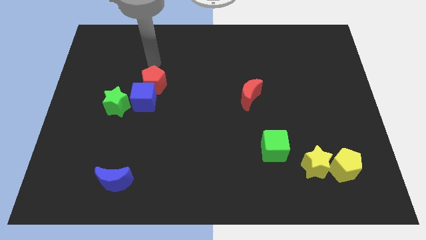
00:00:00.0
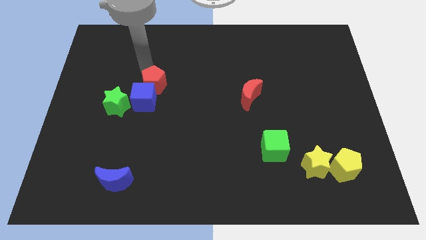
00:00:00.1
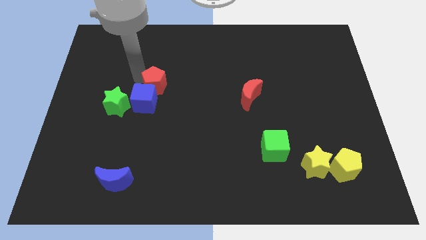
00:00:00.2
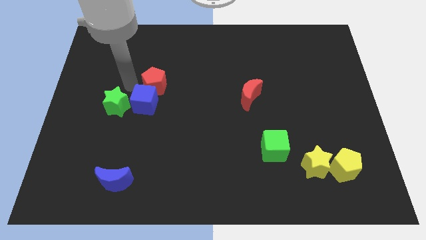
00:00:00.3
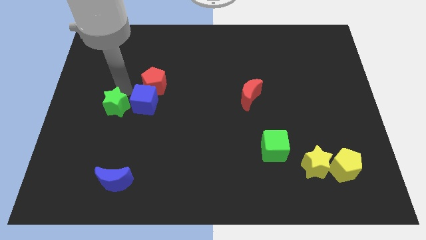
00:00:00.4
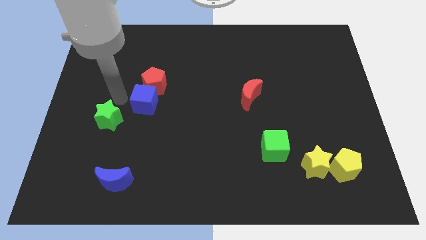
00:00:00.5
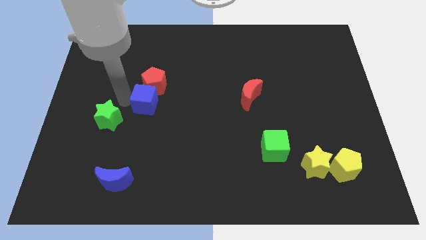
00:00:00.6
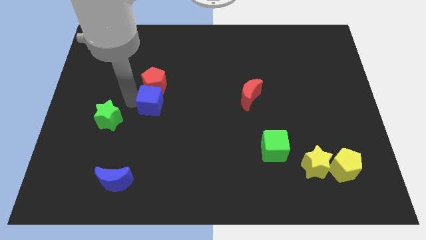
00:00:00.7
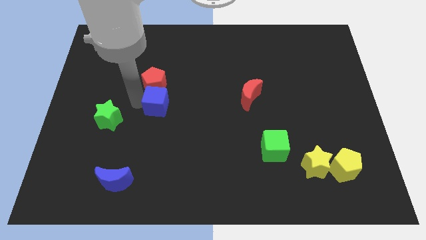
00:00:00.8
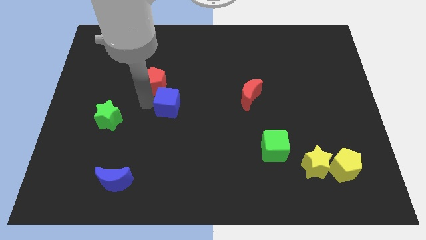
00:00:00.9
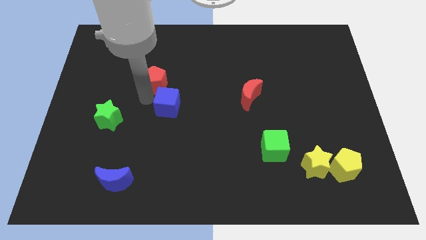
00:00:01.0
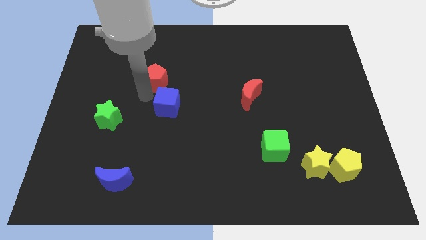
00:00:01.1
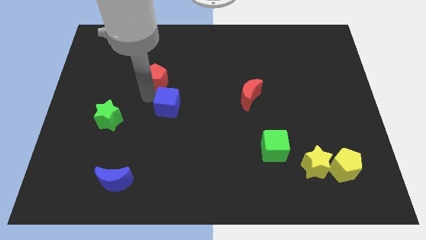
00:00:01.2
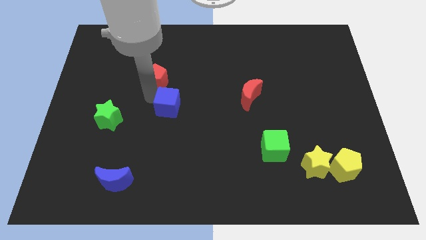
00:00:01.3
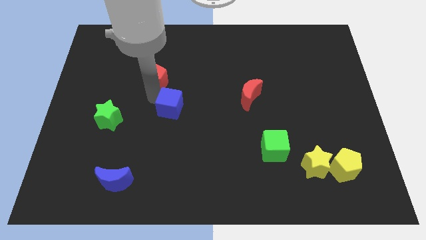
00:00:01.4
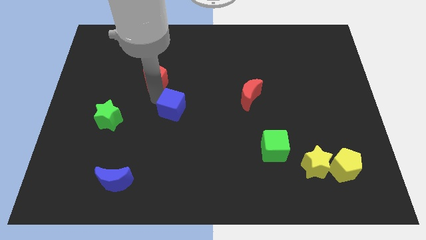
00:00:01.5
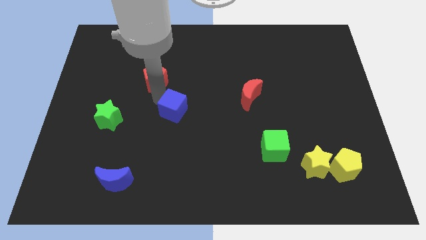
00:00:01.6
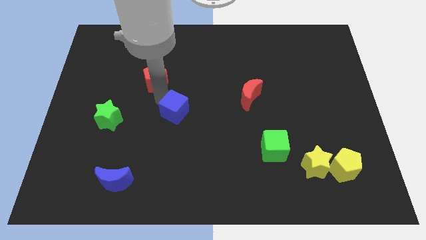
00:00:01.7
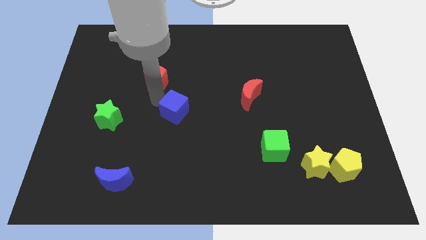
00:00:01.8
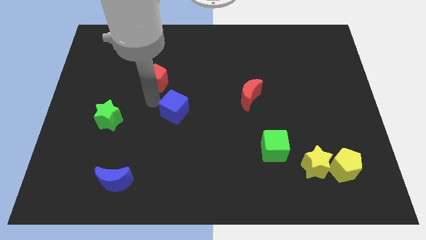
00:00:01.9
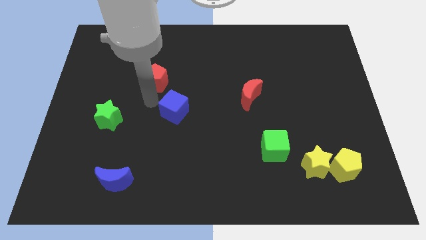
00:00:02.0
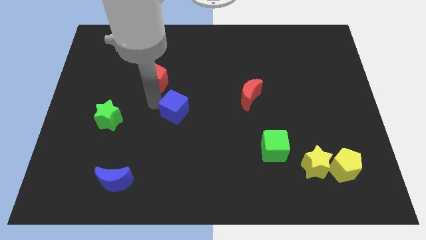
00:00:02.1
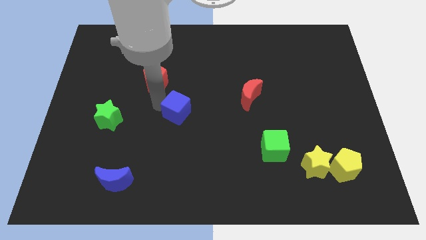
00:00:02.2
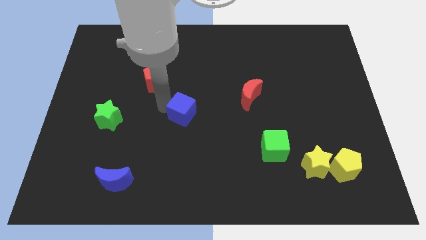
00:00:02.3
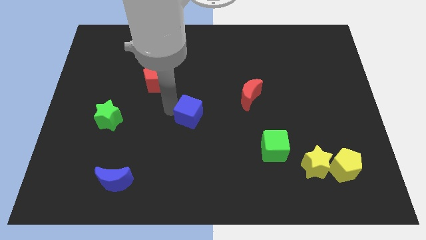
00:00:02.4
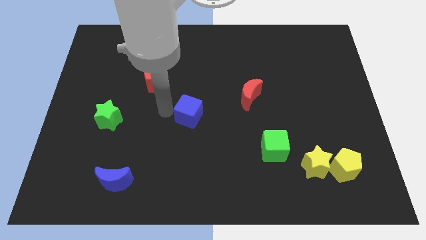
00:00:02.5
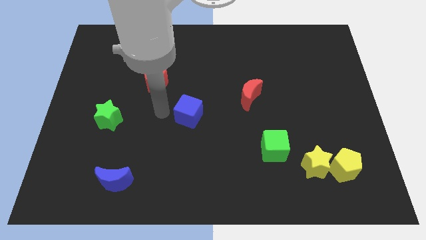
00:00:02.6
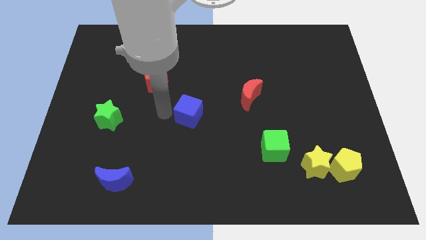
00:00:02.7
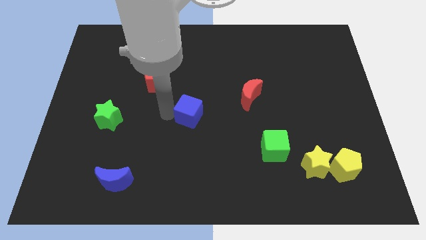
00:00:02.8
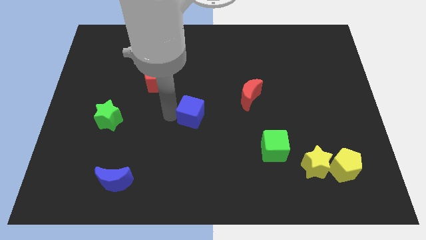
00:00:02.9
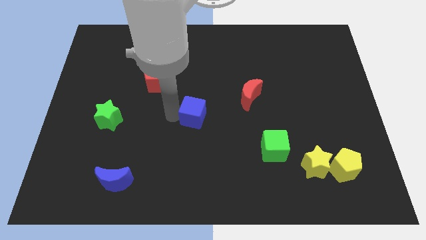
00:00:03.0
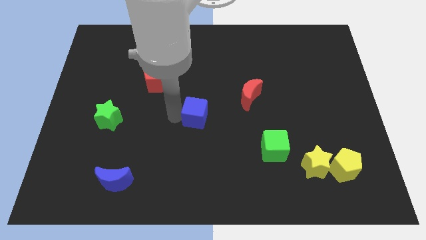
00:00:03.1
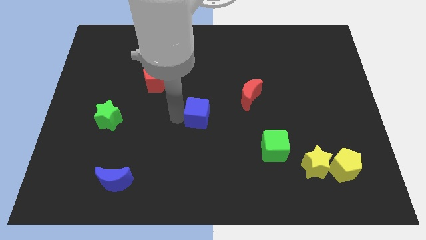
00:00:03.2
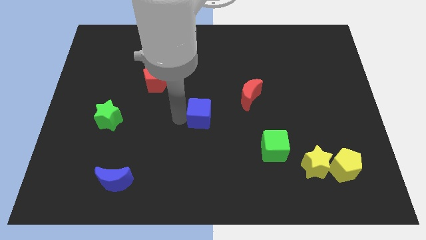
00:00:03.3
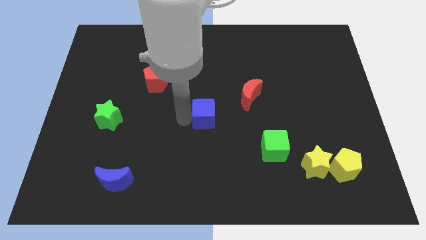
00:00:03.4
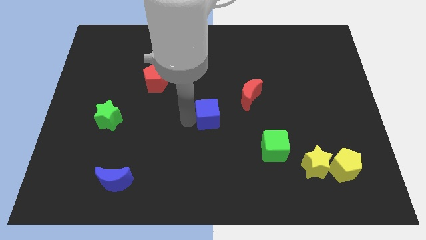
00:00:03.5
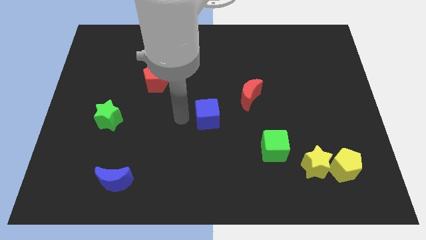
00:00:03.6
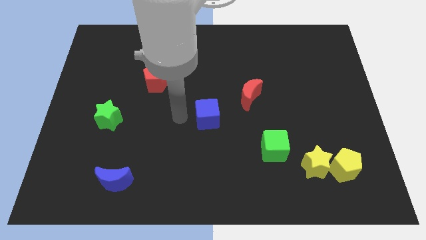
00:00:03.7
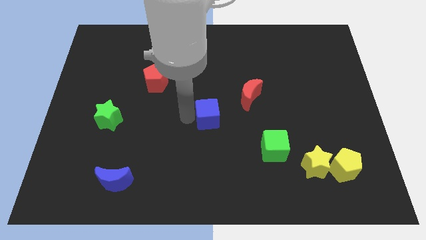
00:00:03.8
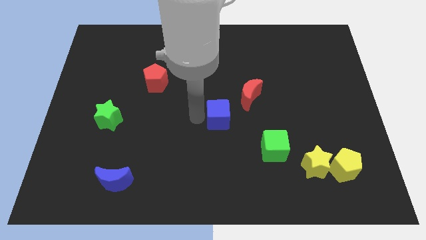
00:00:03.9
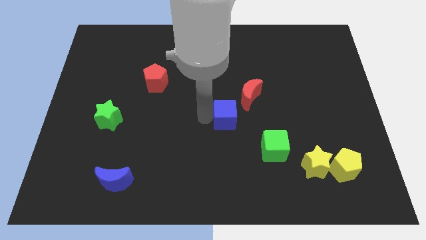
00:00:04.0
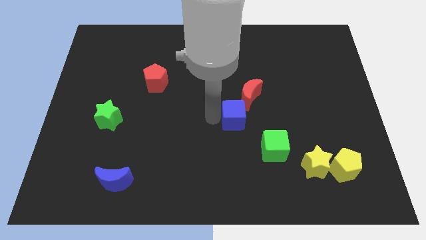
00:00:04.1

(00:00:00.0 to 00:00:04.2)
move the blue cube to the right

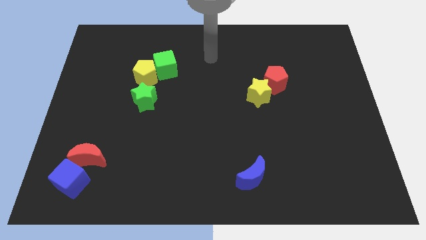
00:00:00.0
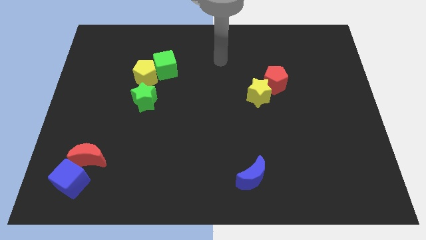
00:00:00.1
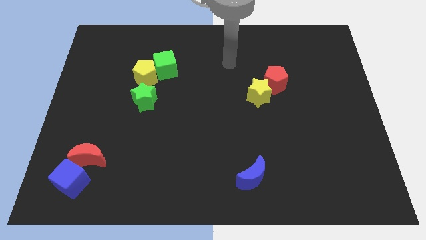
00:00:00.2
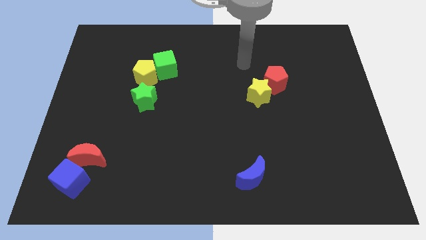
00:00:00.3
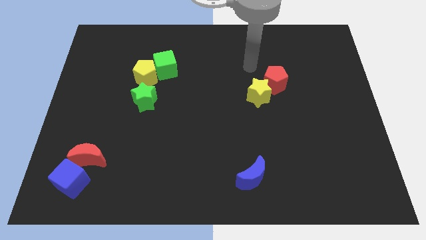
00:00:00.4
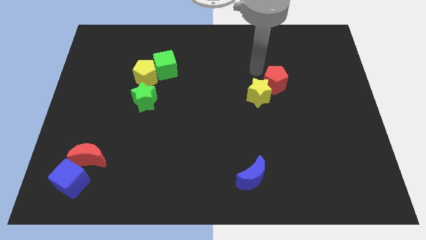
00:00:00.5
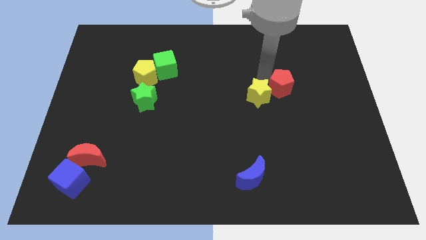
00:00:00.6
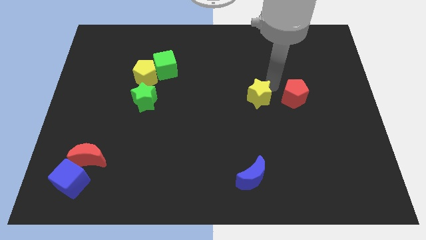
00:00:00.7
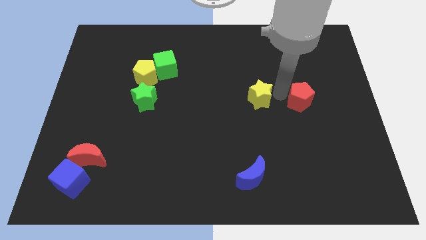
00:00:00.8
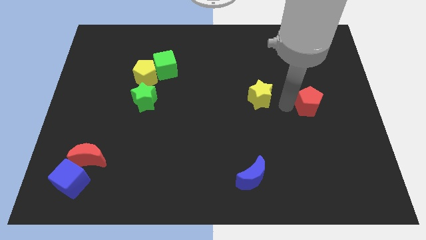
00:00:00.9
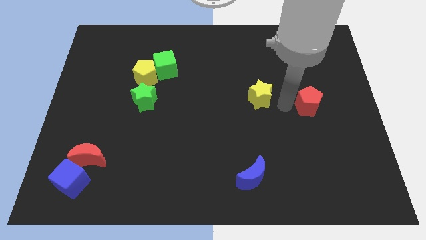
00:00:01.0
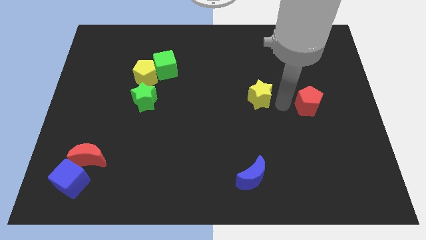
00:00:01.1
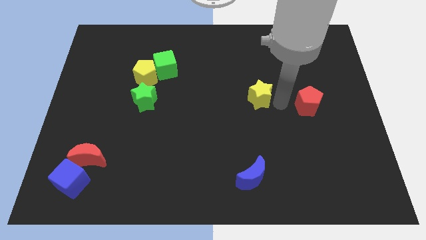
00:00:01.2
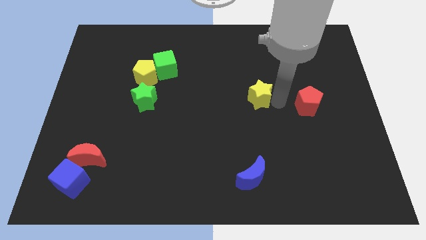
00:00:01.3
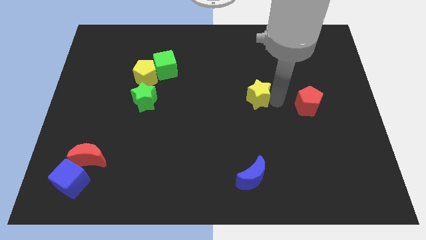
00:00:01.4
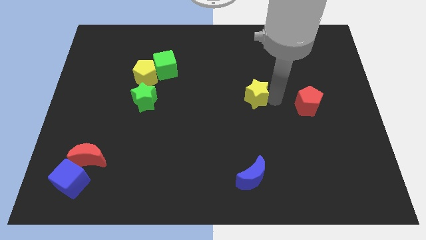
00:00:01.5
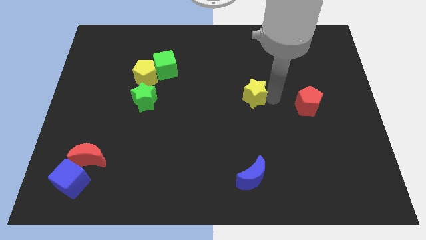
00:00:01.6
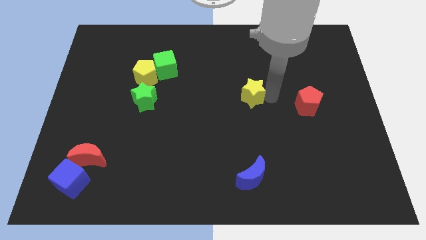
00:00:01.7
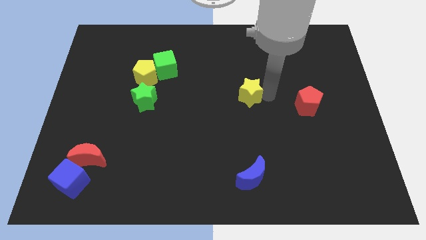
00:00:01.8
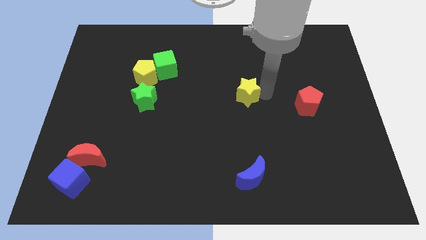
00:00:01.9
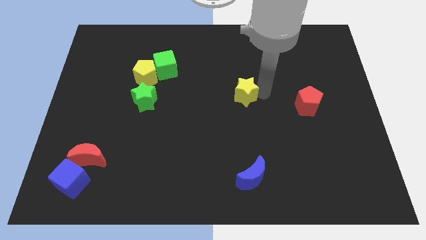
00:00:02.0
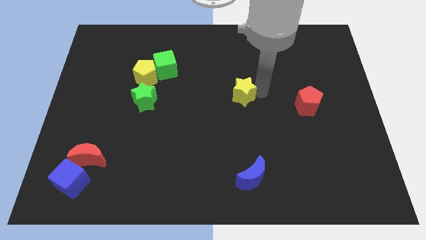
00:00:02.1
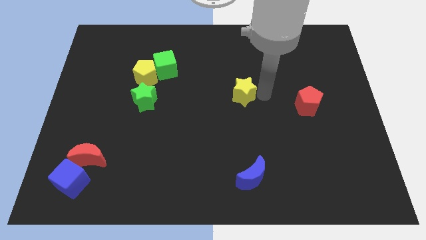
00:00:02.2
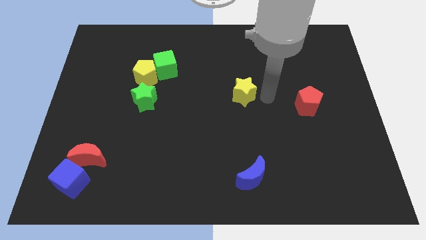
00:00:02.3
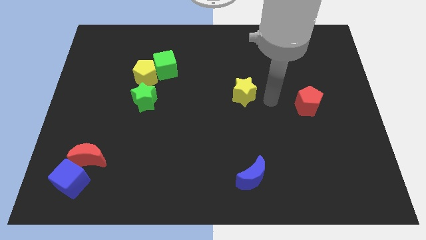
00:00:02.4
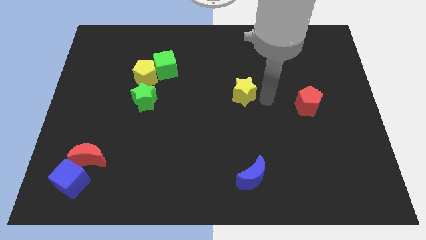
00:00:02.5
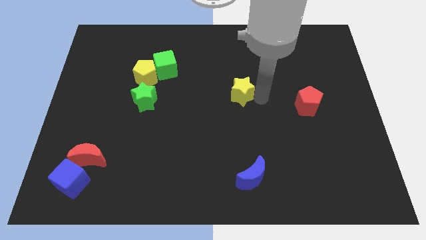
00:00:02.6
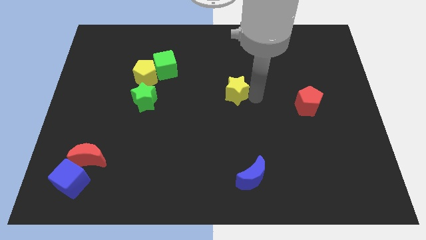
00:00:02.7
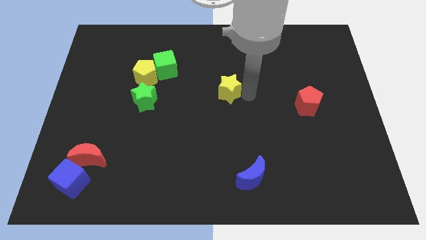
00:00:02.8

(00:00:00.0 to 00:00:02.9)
slightly slide the yellow star to the left

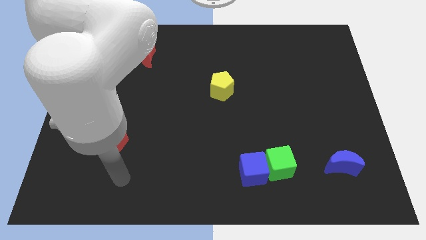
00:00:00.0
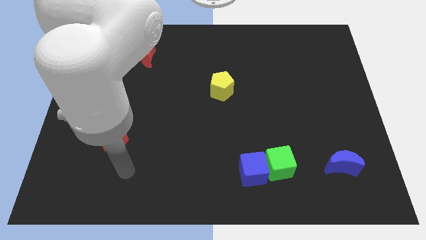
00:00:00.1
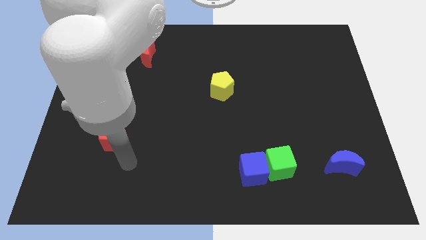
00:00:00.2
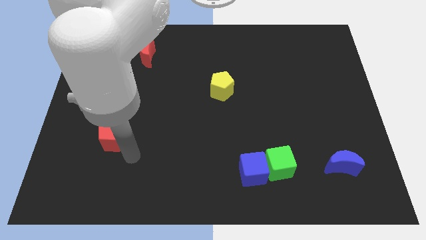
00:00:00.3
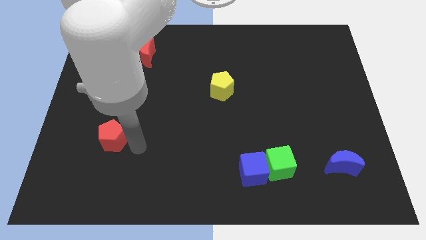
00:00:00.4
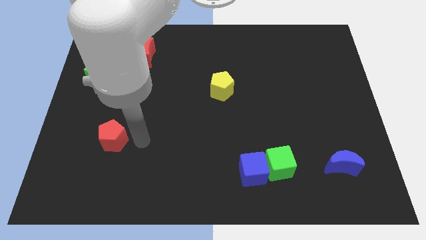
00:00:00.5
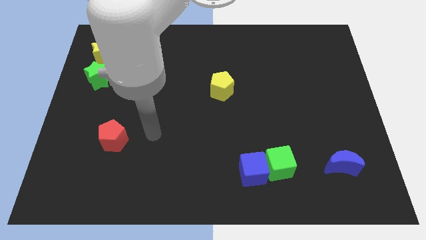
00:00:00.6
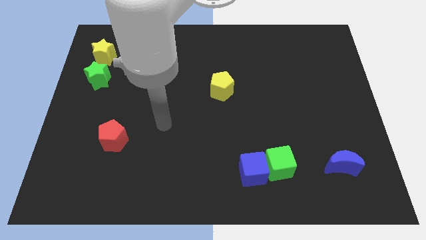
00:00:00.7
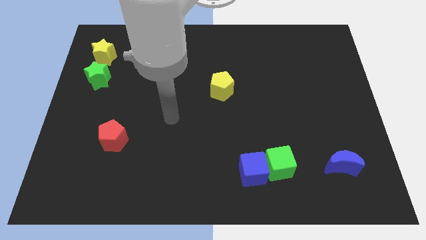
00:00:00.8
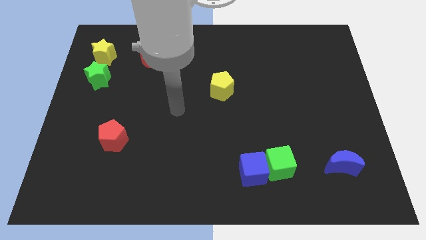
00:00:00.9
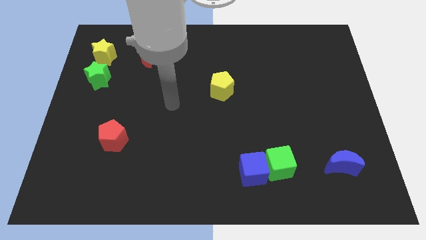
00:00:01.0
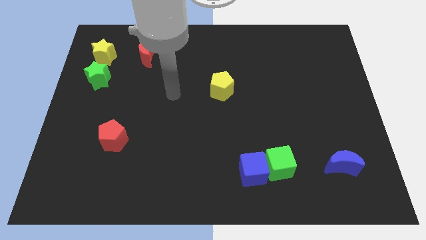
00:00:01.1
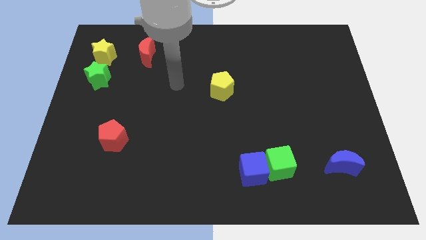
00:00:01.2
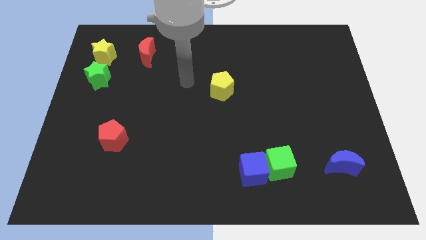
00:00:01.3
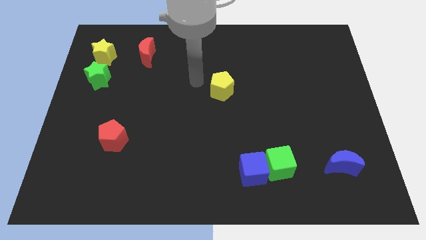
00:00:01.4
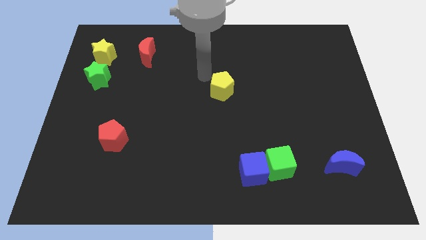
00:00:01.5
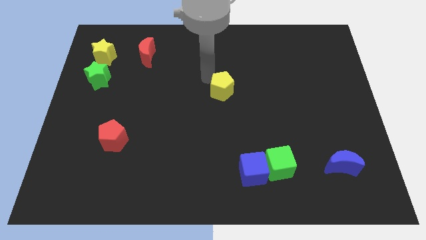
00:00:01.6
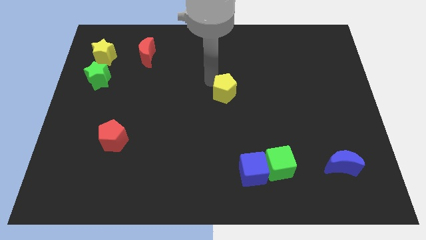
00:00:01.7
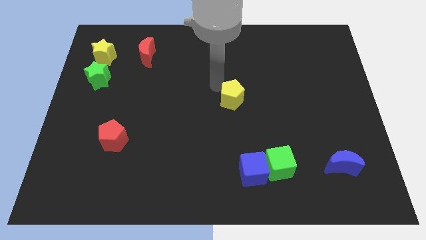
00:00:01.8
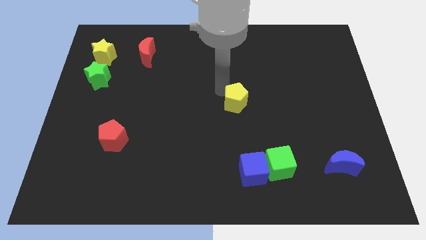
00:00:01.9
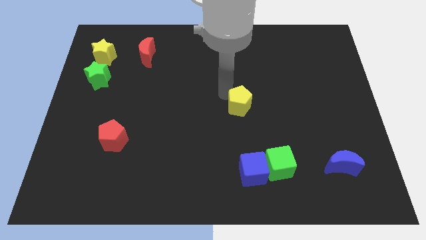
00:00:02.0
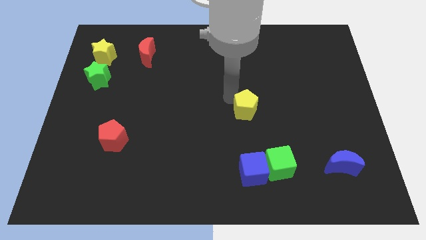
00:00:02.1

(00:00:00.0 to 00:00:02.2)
slightly push the yellow pentagon down and to the right
